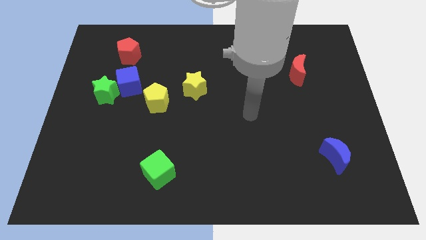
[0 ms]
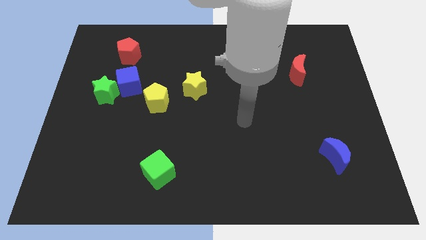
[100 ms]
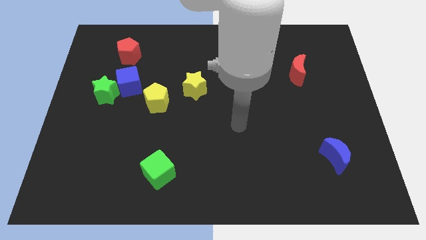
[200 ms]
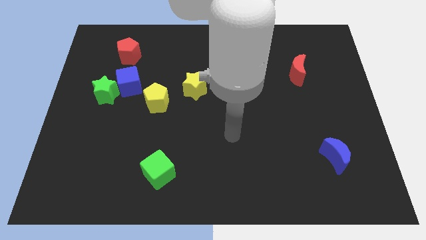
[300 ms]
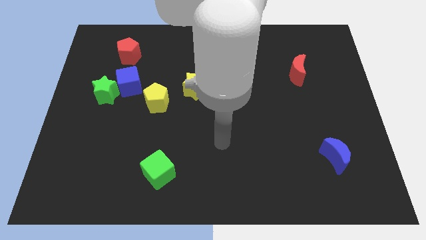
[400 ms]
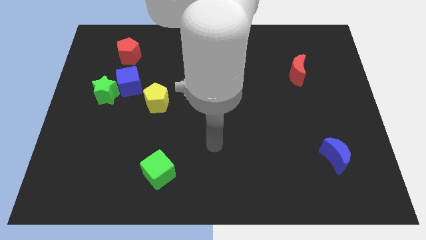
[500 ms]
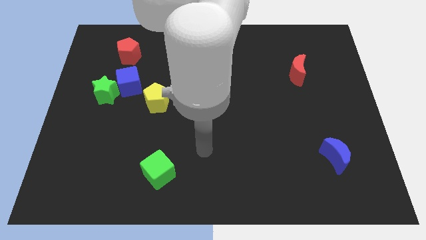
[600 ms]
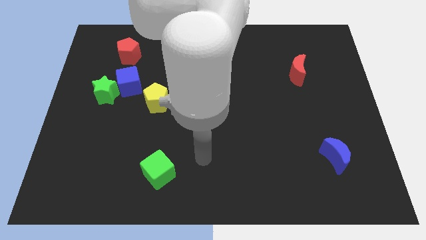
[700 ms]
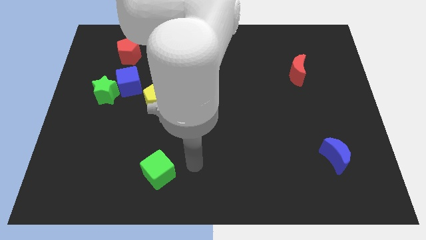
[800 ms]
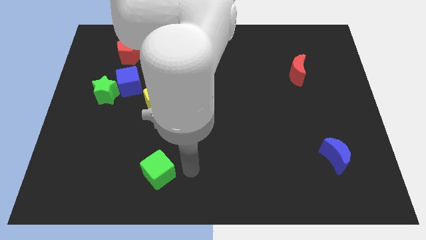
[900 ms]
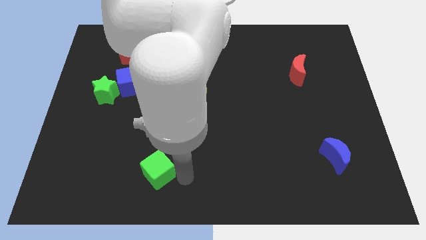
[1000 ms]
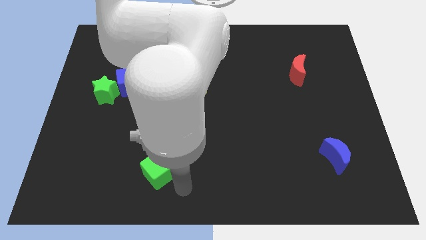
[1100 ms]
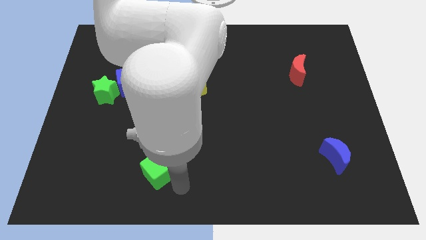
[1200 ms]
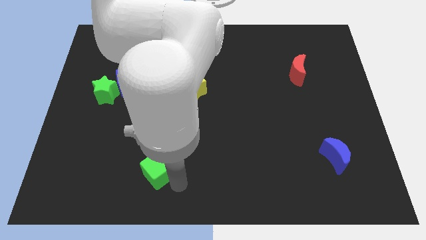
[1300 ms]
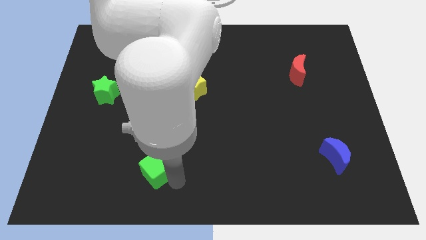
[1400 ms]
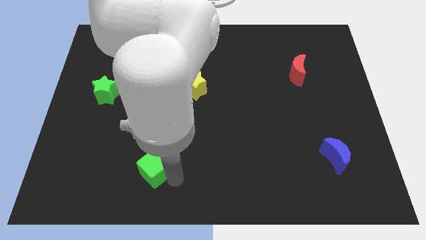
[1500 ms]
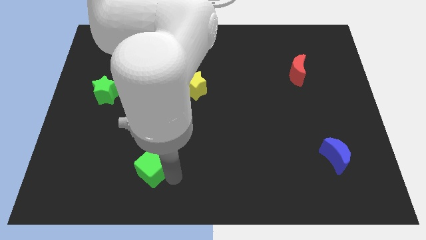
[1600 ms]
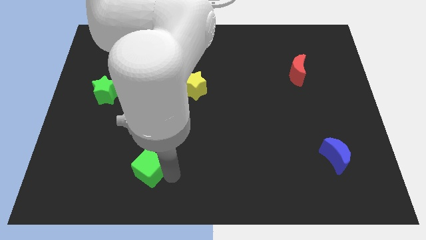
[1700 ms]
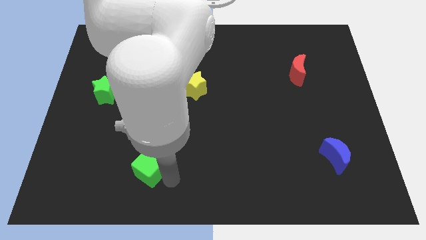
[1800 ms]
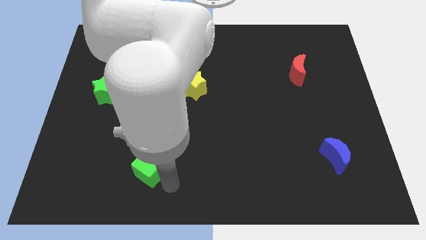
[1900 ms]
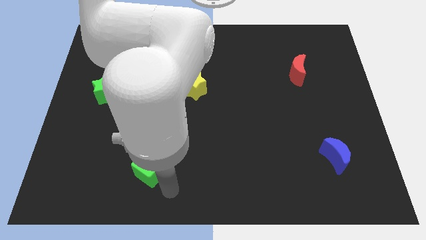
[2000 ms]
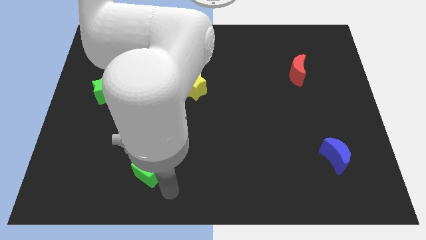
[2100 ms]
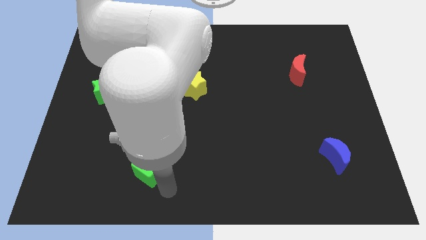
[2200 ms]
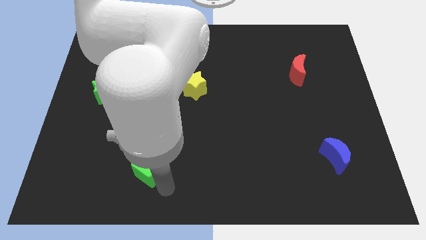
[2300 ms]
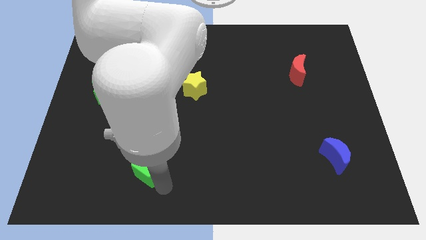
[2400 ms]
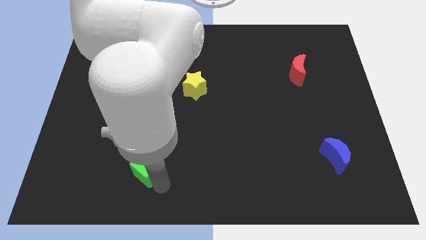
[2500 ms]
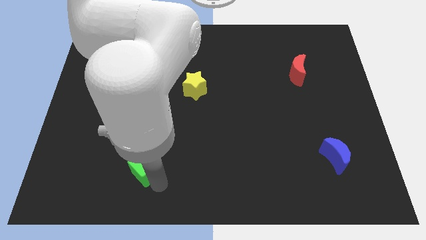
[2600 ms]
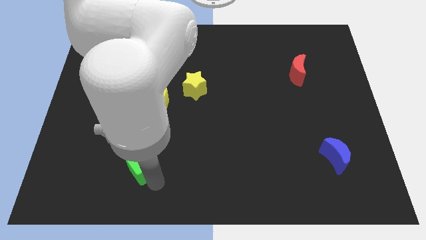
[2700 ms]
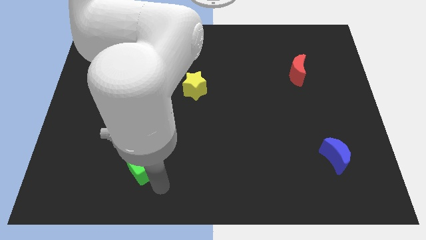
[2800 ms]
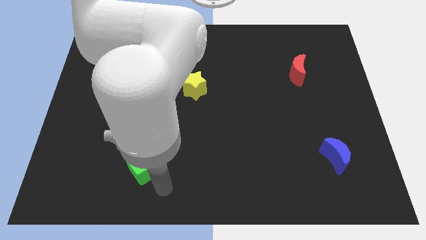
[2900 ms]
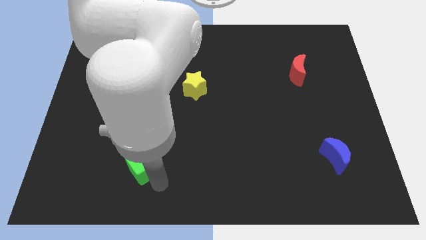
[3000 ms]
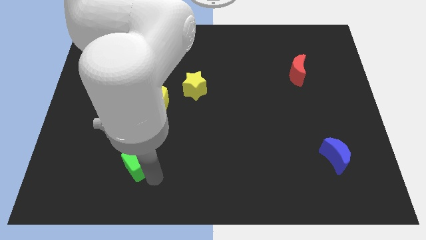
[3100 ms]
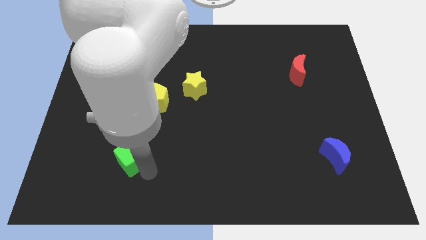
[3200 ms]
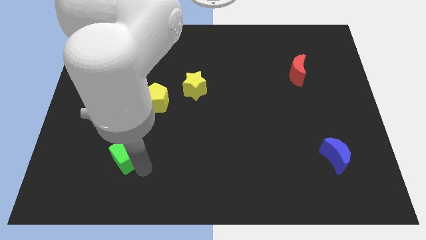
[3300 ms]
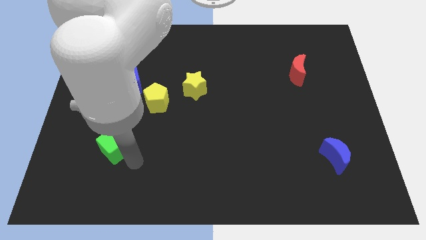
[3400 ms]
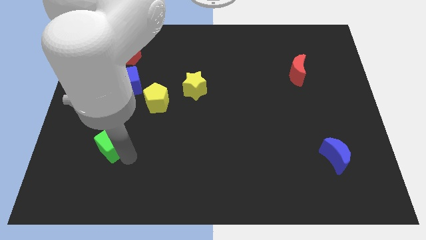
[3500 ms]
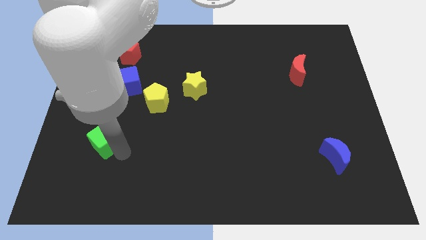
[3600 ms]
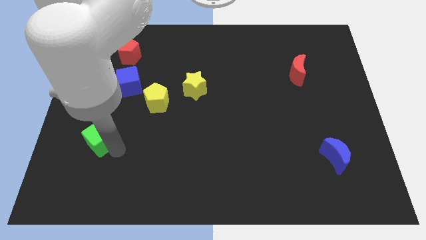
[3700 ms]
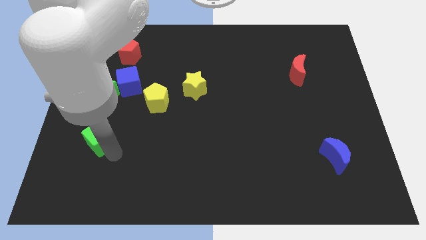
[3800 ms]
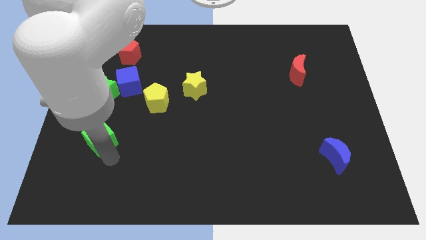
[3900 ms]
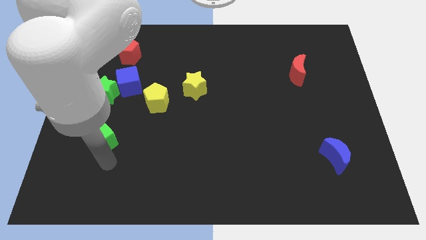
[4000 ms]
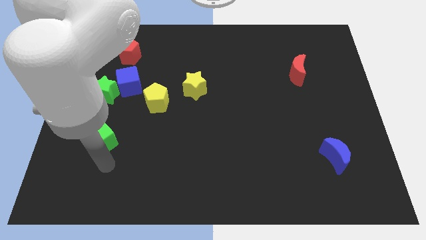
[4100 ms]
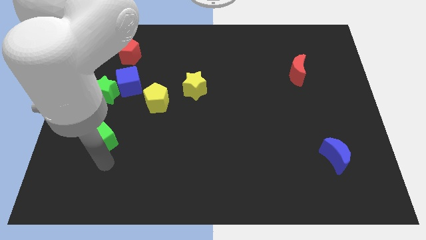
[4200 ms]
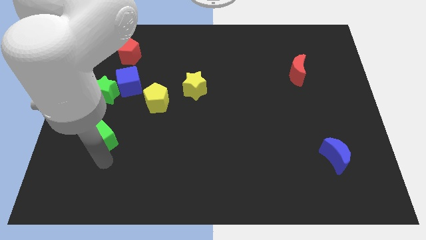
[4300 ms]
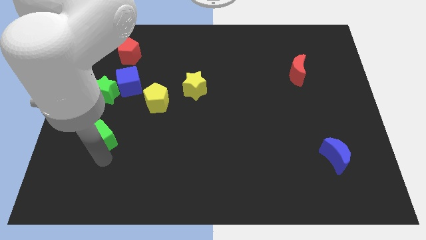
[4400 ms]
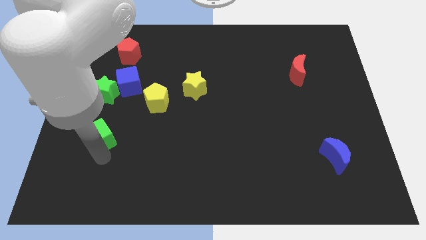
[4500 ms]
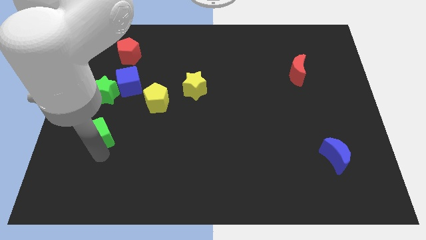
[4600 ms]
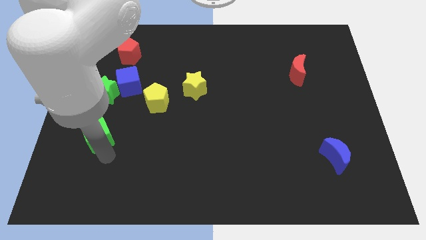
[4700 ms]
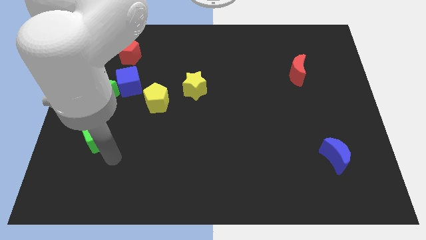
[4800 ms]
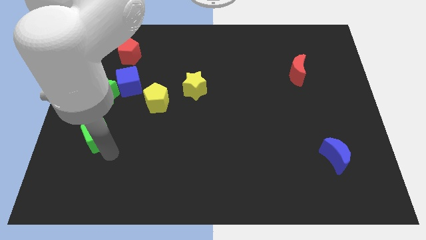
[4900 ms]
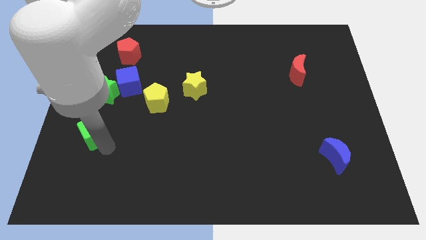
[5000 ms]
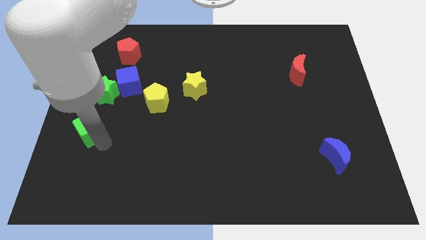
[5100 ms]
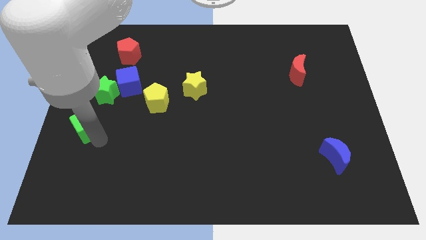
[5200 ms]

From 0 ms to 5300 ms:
slide the green cube to the center left

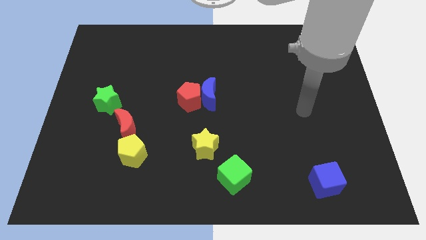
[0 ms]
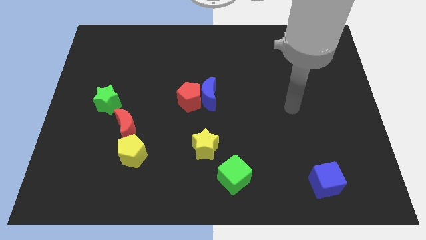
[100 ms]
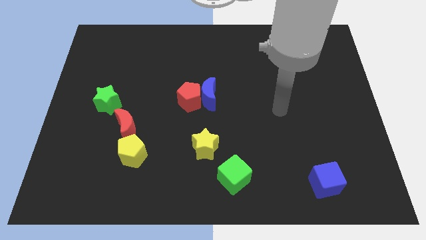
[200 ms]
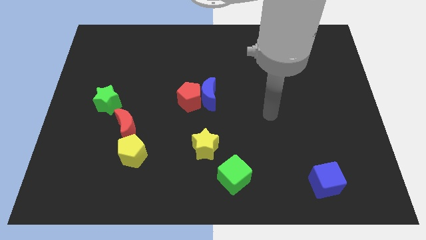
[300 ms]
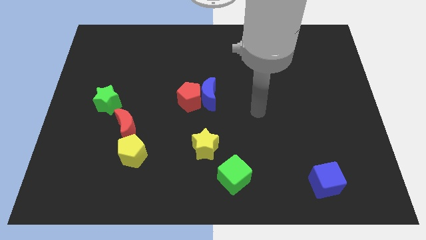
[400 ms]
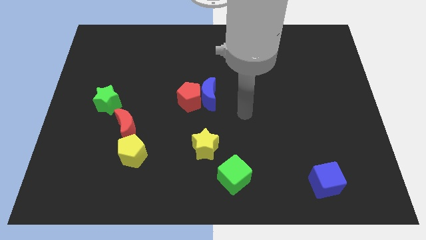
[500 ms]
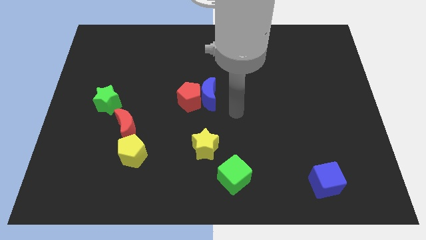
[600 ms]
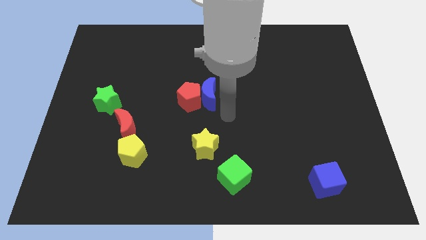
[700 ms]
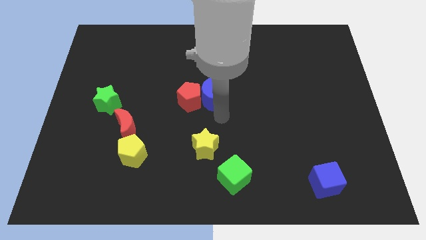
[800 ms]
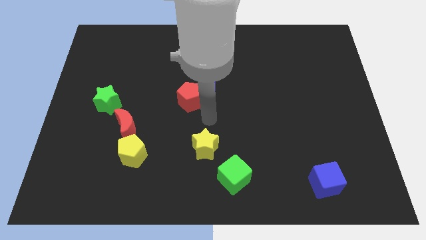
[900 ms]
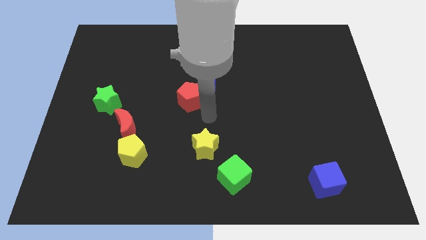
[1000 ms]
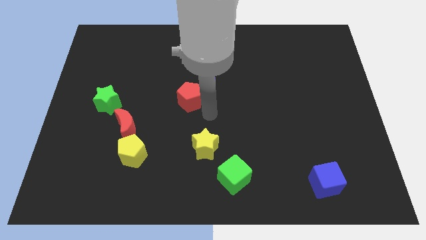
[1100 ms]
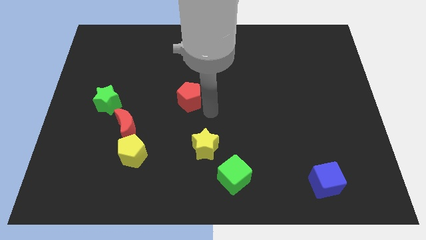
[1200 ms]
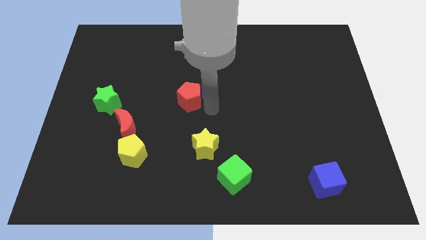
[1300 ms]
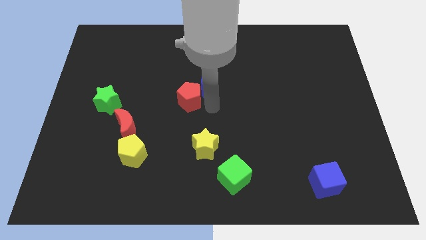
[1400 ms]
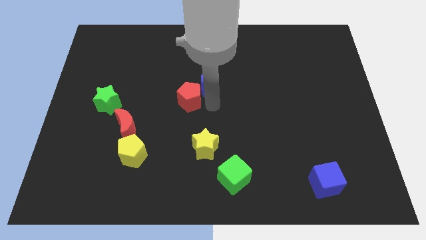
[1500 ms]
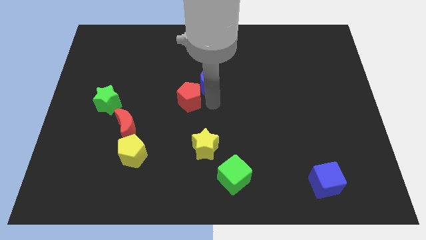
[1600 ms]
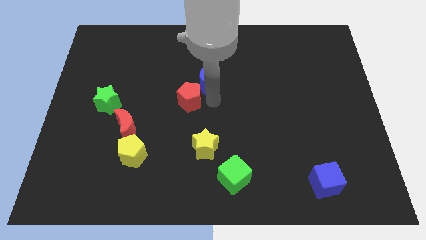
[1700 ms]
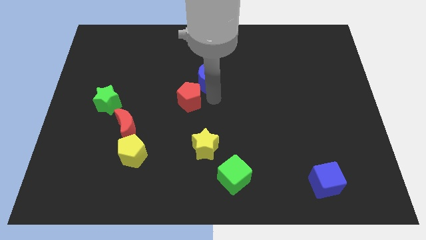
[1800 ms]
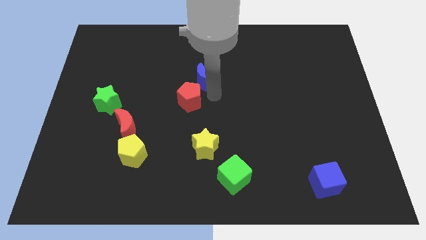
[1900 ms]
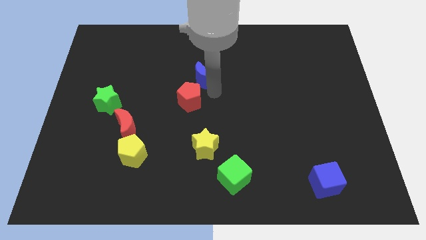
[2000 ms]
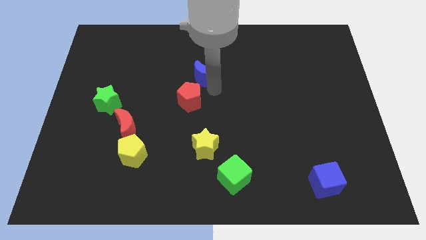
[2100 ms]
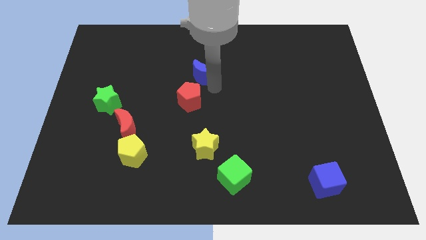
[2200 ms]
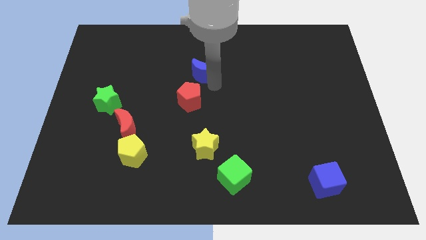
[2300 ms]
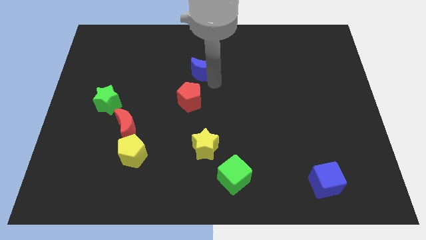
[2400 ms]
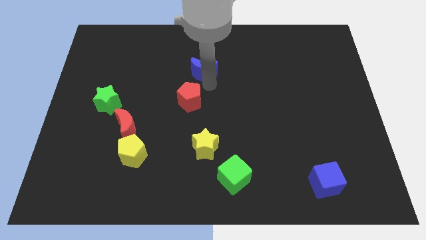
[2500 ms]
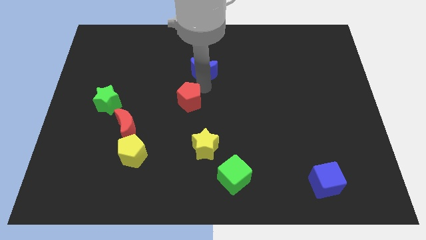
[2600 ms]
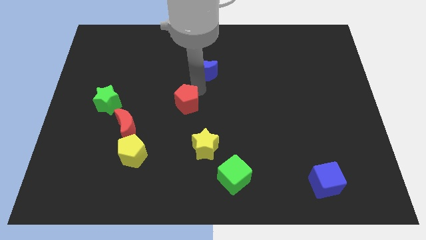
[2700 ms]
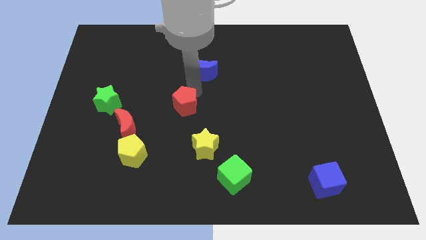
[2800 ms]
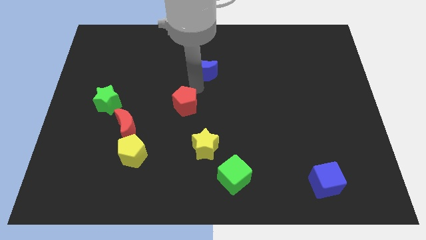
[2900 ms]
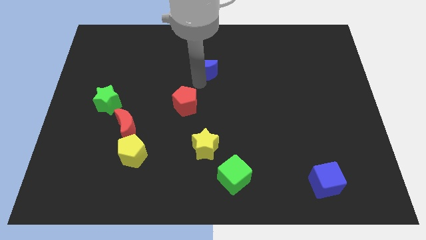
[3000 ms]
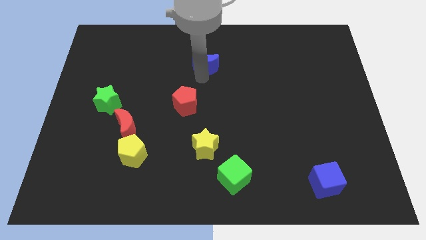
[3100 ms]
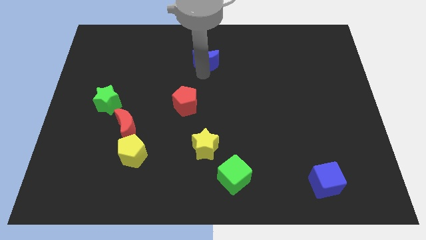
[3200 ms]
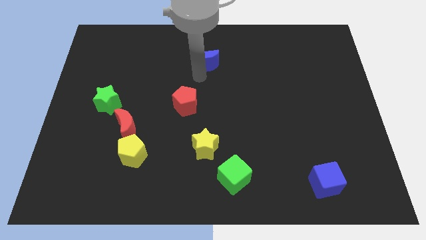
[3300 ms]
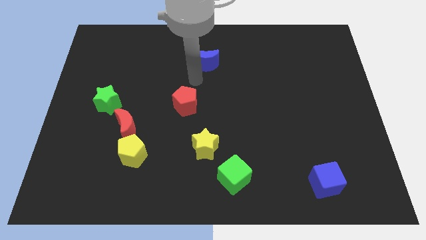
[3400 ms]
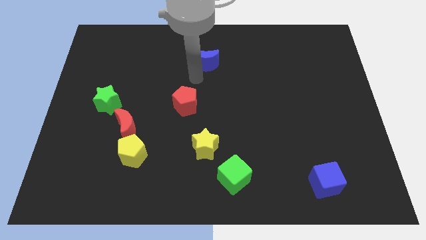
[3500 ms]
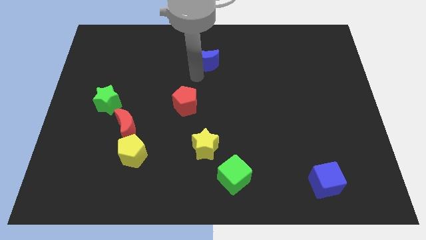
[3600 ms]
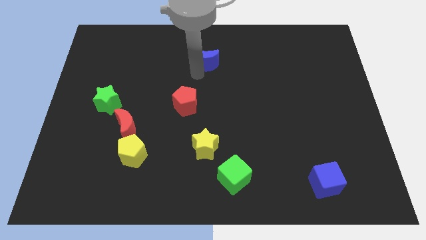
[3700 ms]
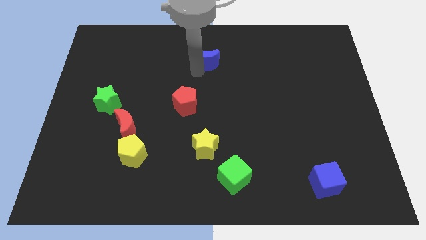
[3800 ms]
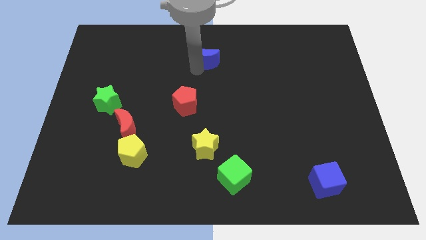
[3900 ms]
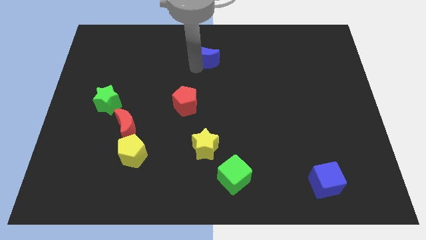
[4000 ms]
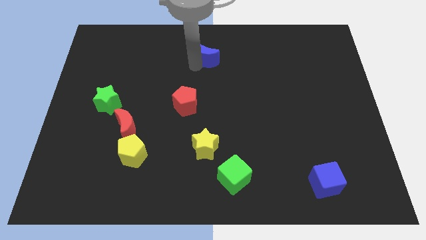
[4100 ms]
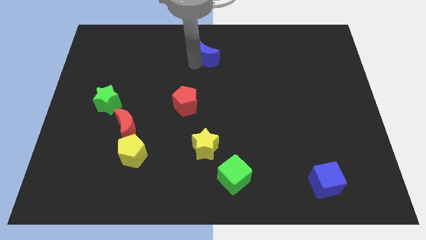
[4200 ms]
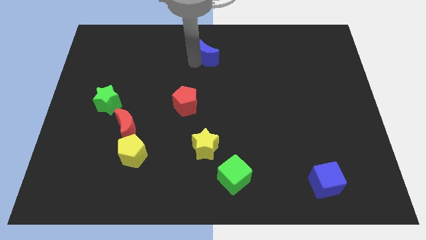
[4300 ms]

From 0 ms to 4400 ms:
move the blue moon to the top
